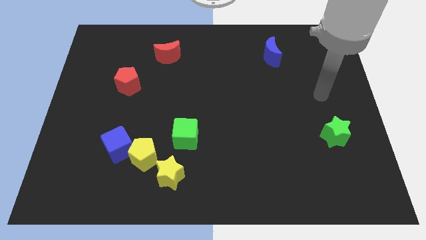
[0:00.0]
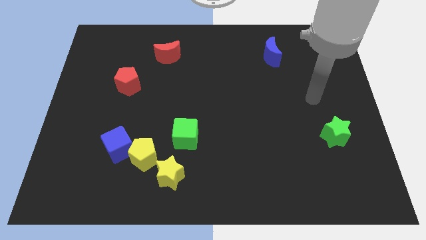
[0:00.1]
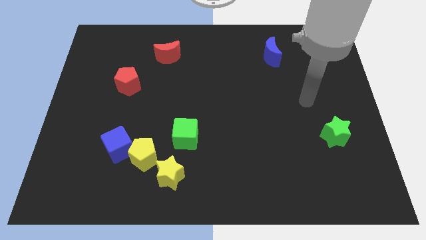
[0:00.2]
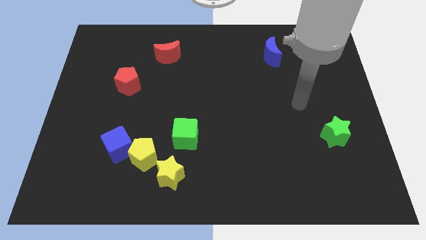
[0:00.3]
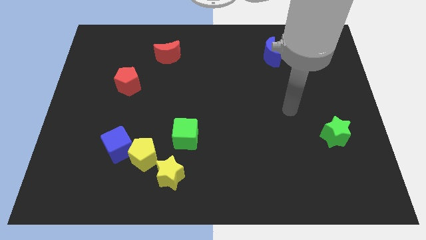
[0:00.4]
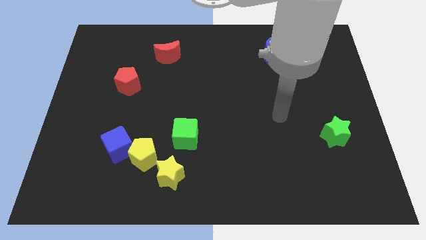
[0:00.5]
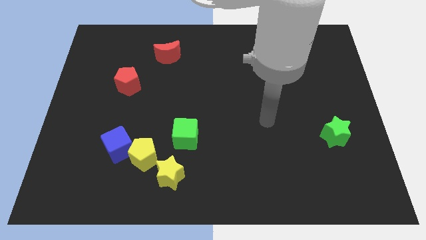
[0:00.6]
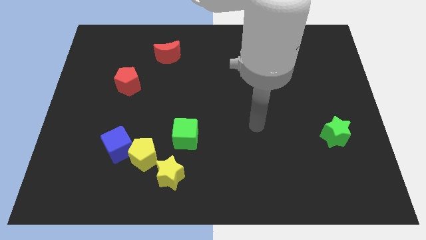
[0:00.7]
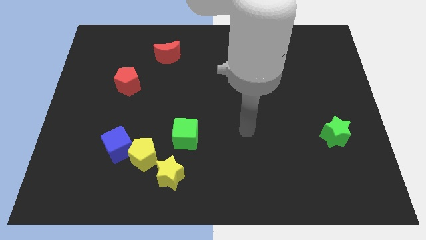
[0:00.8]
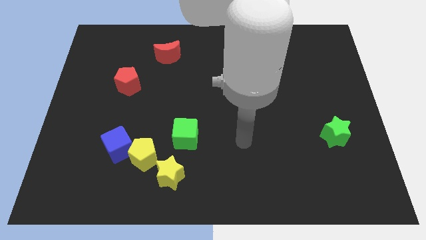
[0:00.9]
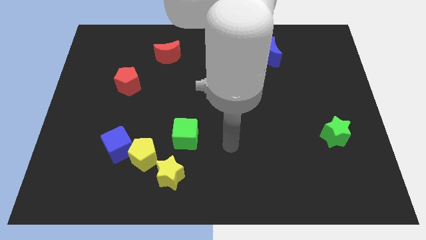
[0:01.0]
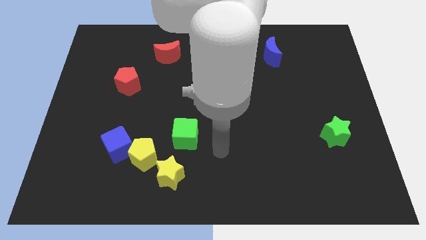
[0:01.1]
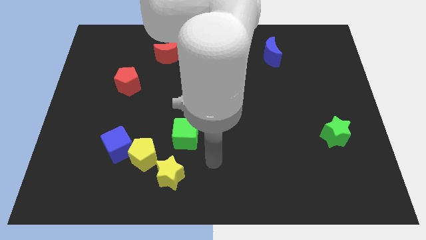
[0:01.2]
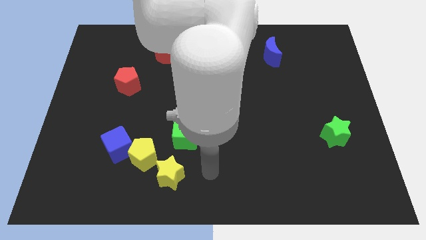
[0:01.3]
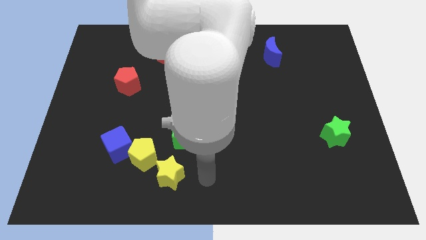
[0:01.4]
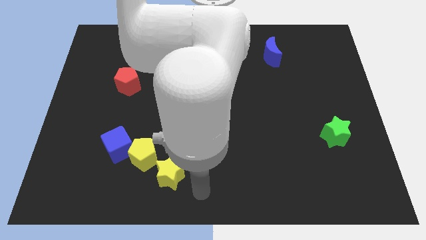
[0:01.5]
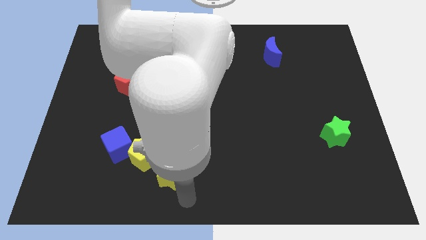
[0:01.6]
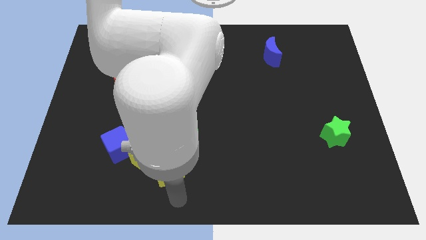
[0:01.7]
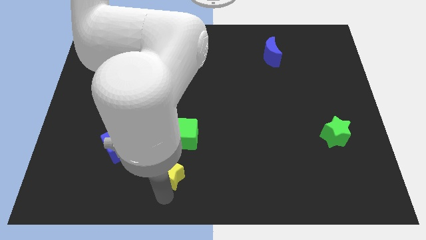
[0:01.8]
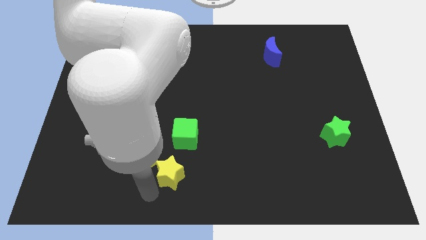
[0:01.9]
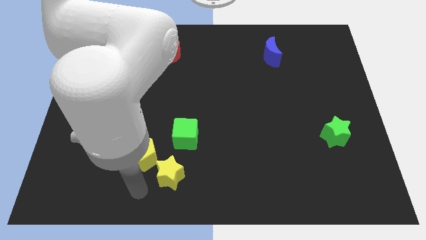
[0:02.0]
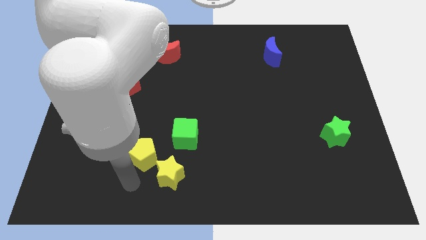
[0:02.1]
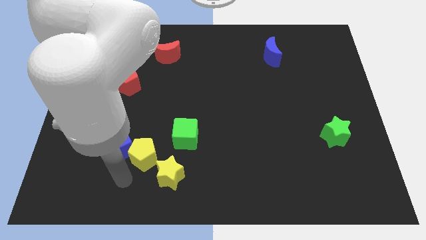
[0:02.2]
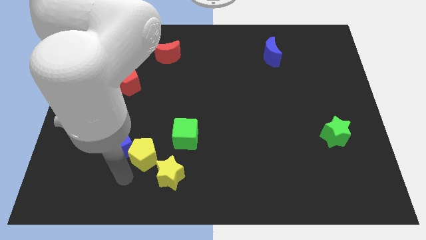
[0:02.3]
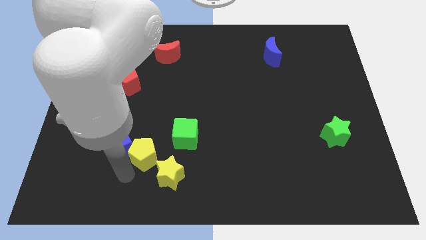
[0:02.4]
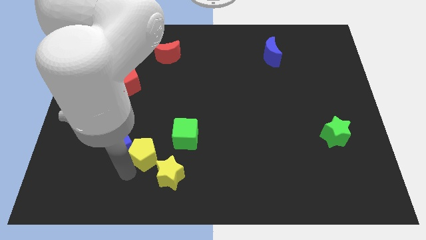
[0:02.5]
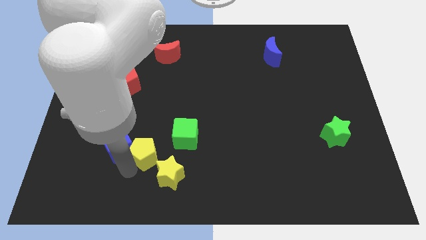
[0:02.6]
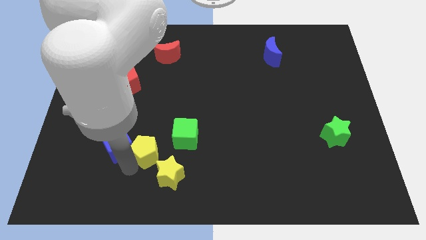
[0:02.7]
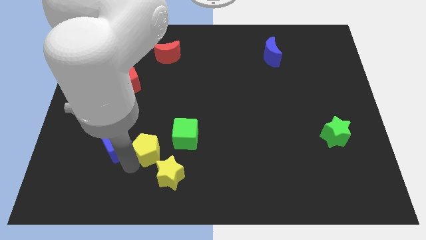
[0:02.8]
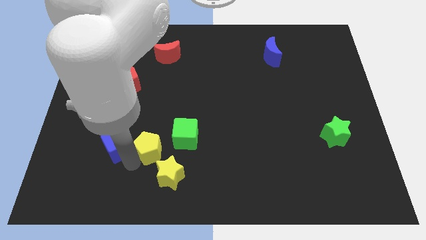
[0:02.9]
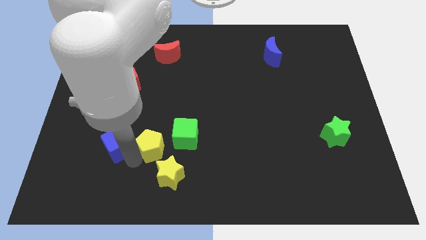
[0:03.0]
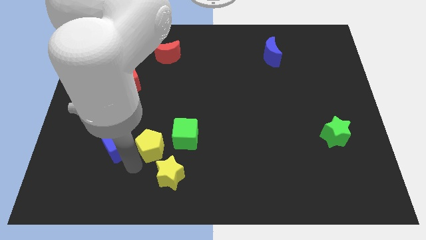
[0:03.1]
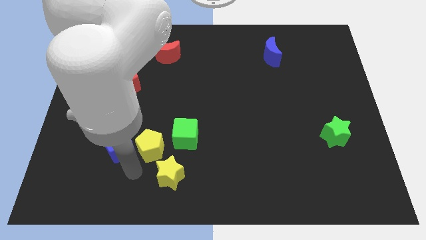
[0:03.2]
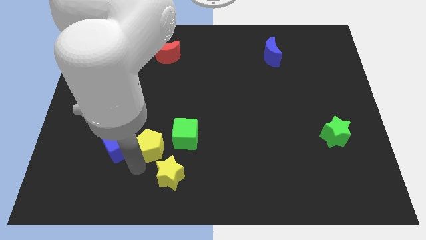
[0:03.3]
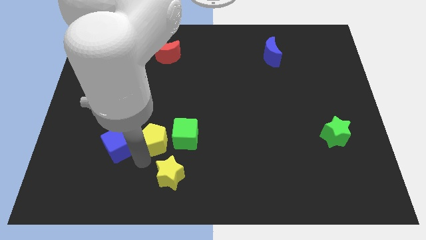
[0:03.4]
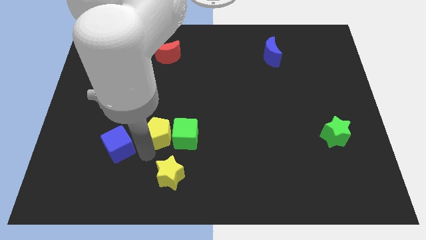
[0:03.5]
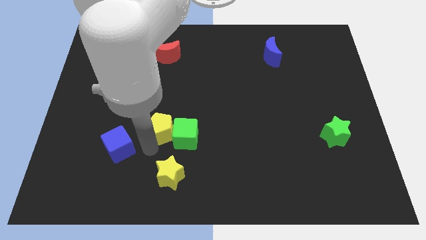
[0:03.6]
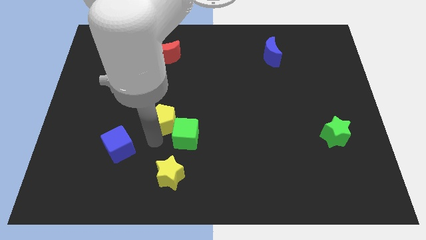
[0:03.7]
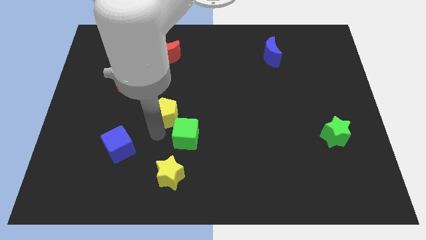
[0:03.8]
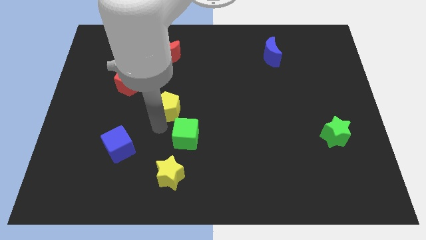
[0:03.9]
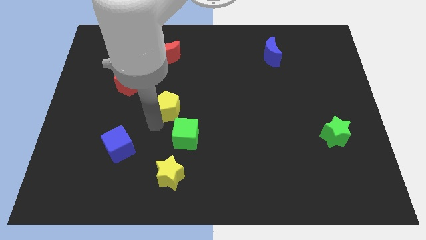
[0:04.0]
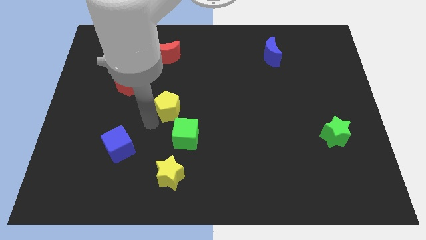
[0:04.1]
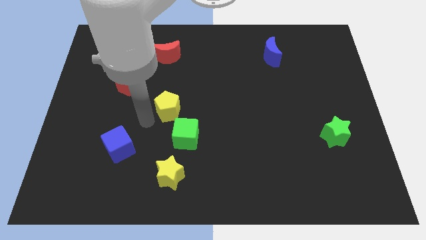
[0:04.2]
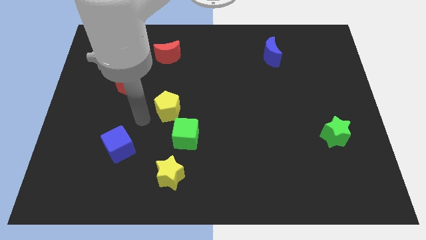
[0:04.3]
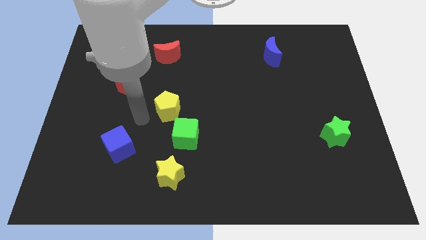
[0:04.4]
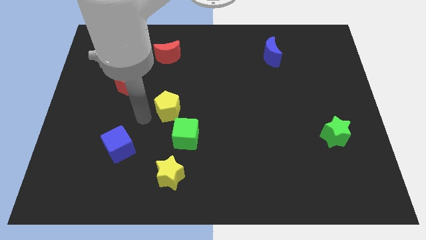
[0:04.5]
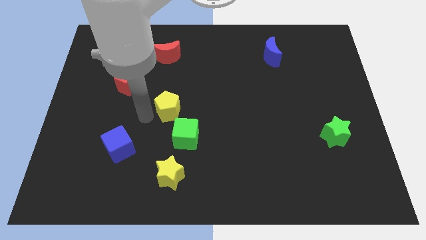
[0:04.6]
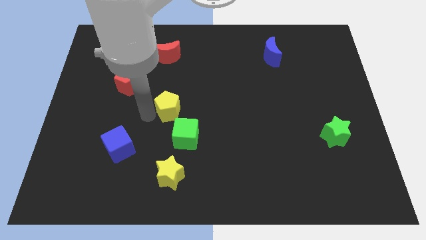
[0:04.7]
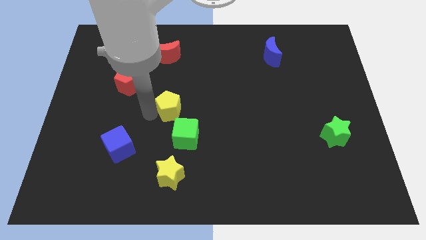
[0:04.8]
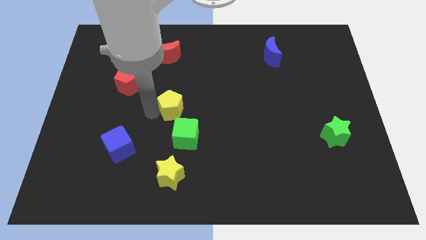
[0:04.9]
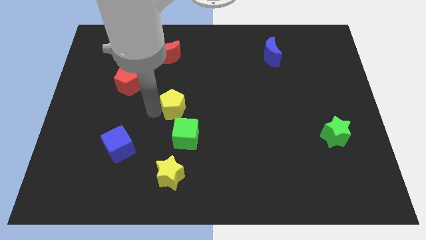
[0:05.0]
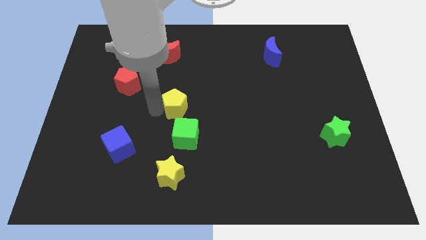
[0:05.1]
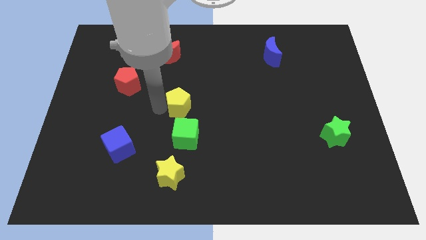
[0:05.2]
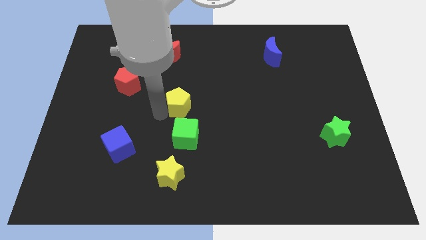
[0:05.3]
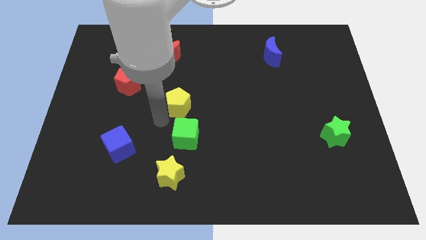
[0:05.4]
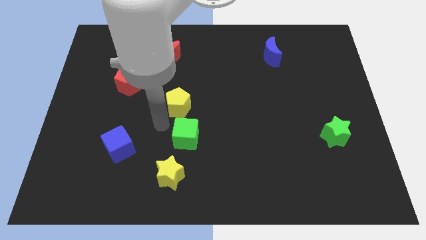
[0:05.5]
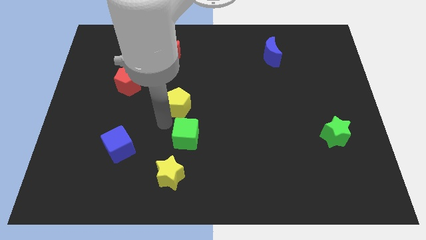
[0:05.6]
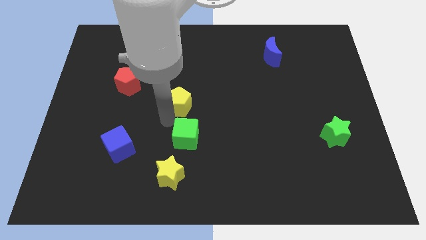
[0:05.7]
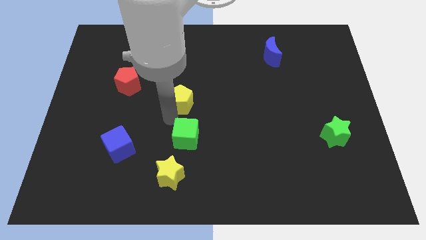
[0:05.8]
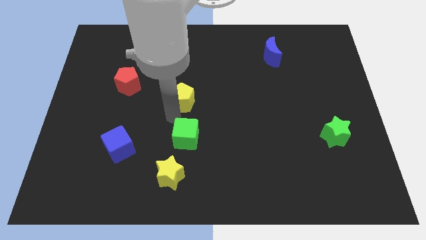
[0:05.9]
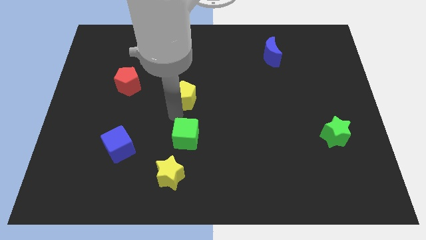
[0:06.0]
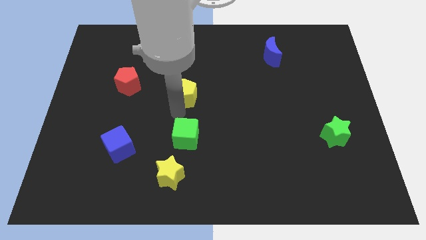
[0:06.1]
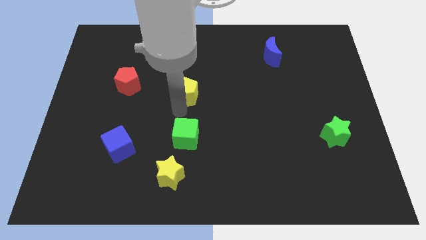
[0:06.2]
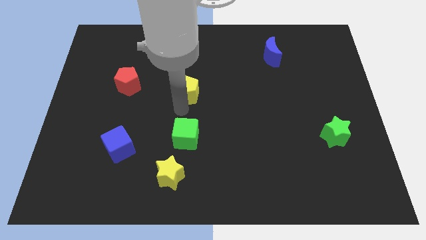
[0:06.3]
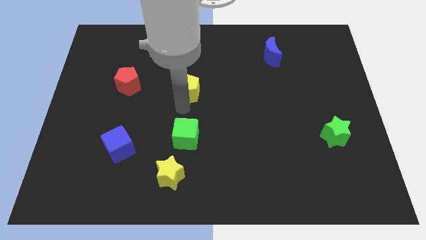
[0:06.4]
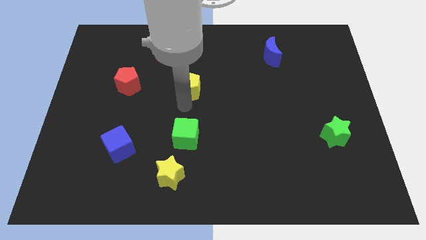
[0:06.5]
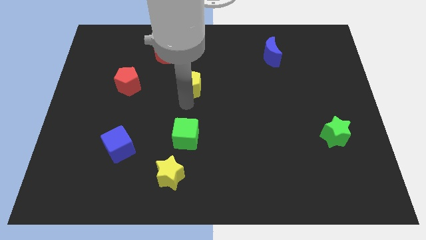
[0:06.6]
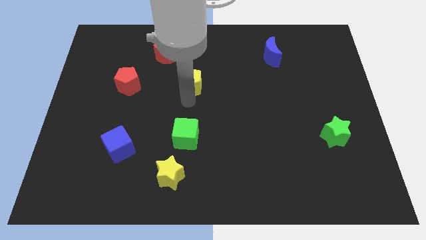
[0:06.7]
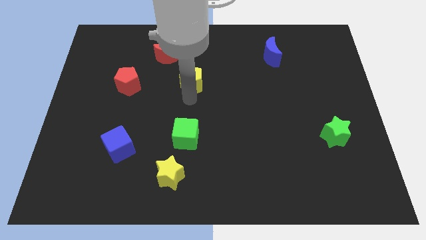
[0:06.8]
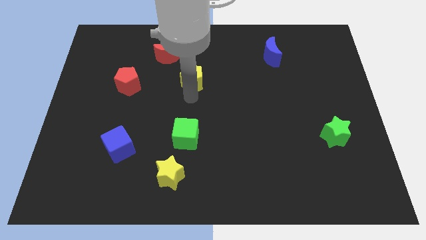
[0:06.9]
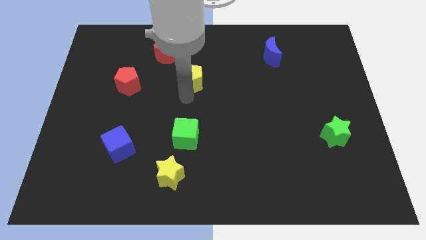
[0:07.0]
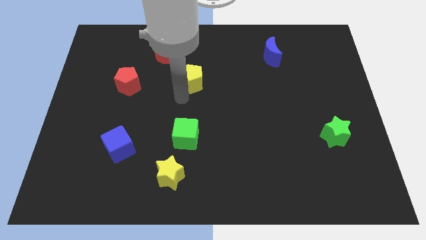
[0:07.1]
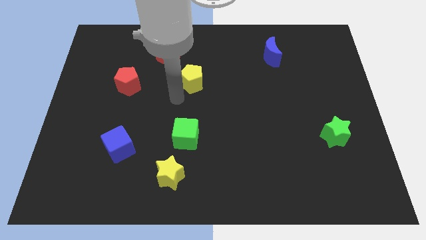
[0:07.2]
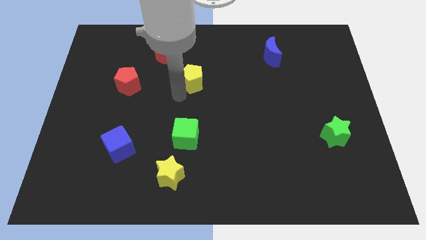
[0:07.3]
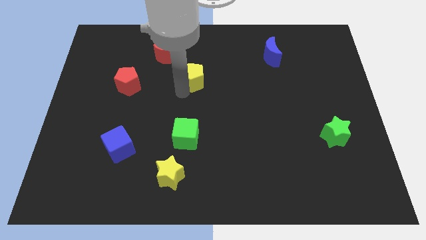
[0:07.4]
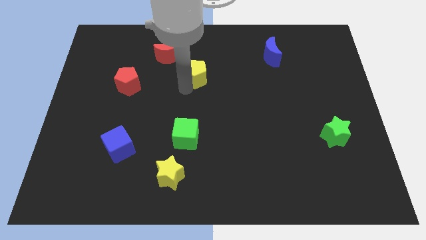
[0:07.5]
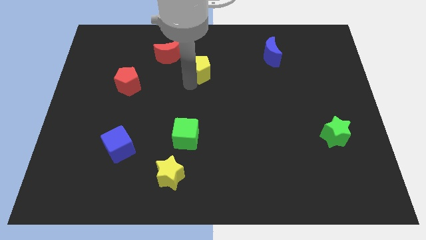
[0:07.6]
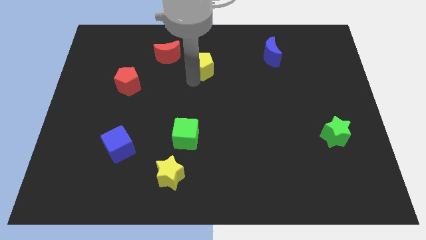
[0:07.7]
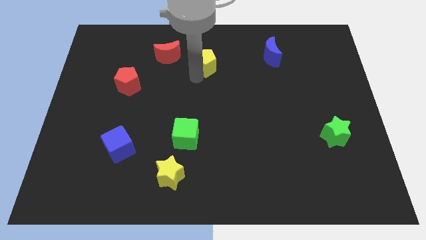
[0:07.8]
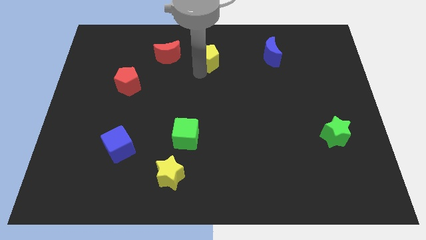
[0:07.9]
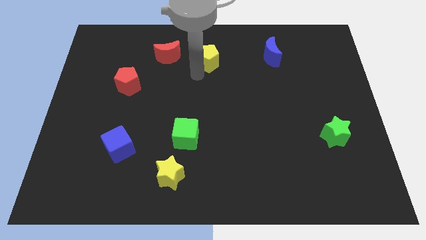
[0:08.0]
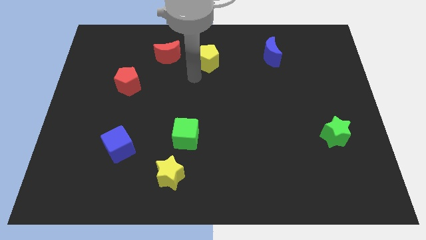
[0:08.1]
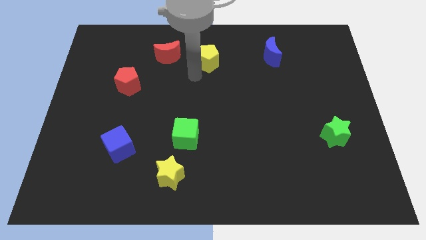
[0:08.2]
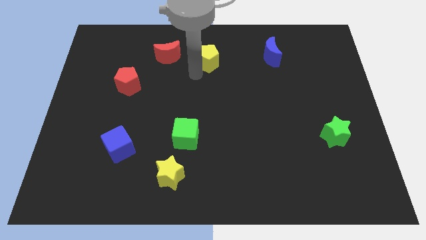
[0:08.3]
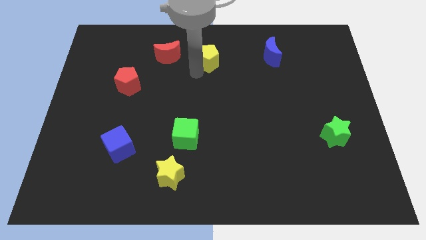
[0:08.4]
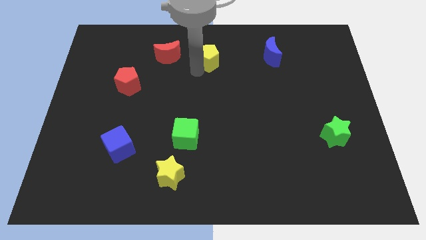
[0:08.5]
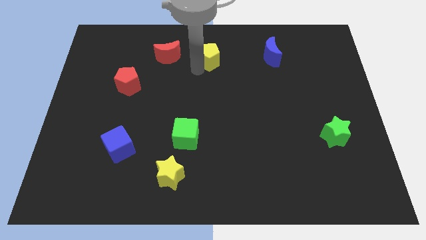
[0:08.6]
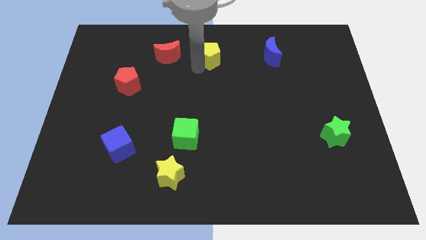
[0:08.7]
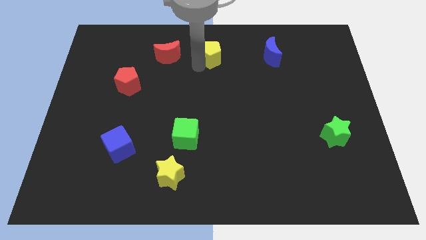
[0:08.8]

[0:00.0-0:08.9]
move the yellow pentagon to the towards your base
